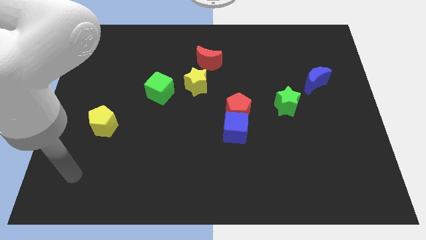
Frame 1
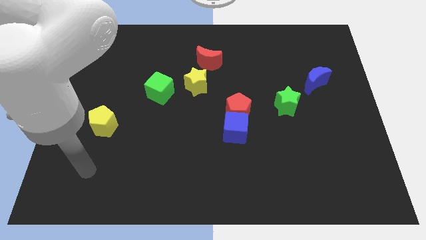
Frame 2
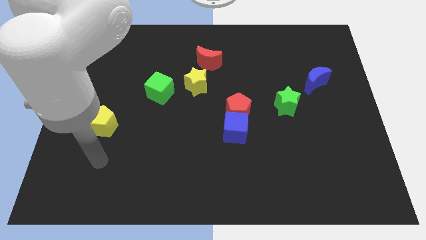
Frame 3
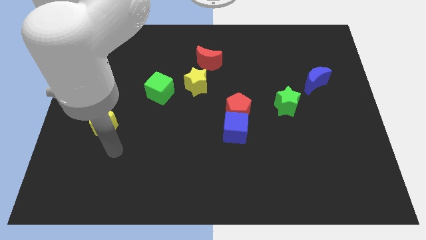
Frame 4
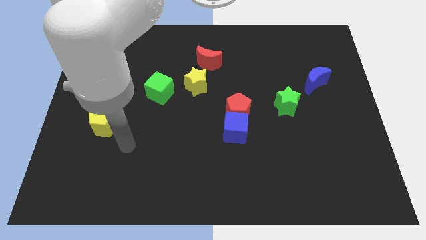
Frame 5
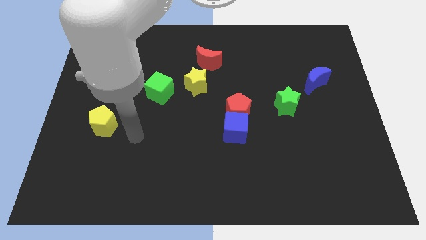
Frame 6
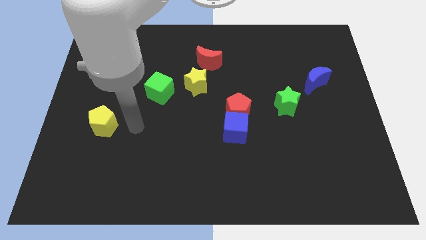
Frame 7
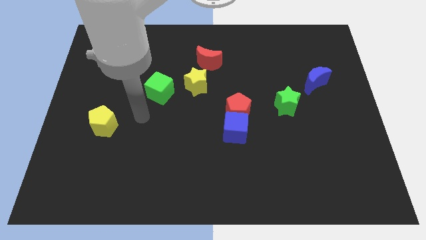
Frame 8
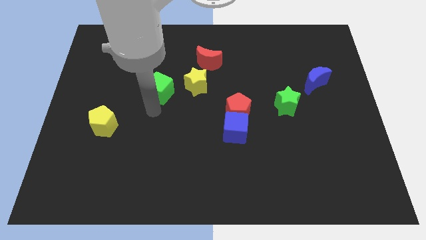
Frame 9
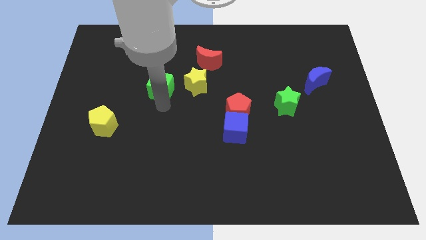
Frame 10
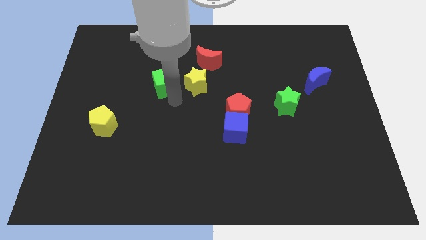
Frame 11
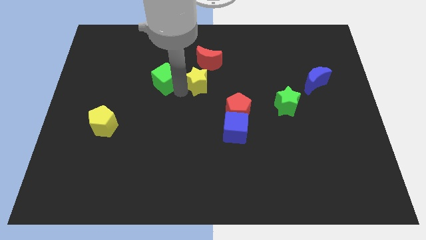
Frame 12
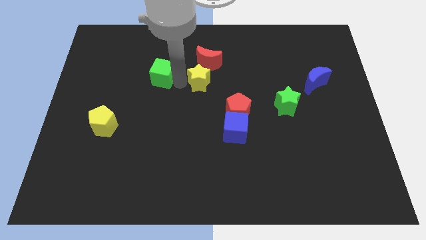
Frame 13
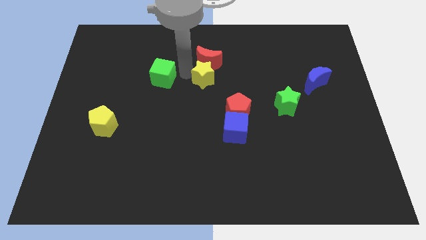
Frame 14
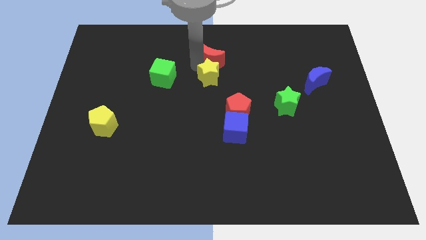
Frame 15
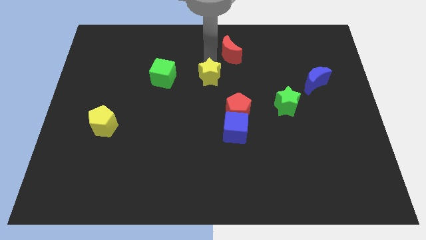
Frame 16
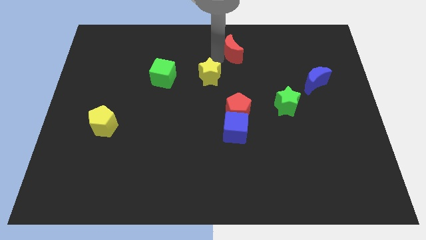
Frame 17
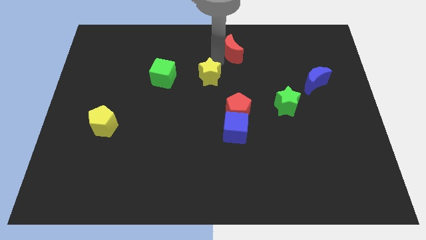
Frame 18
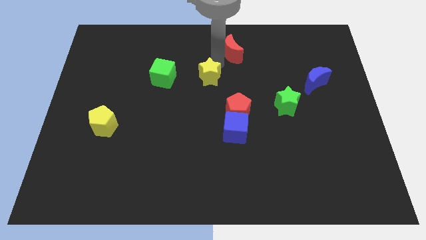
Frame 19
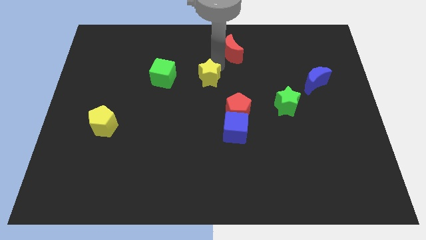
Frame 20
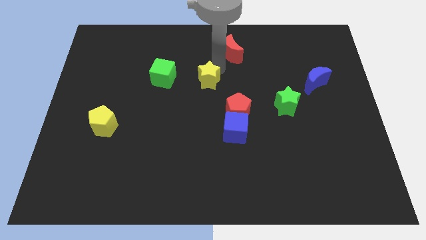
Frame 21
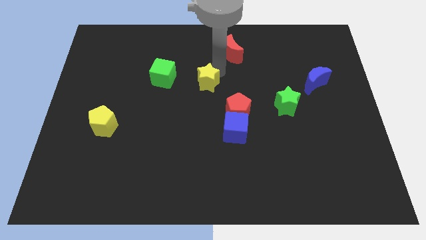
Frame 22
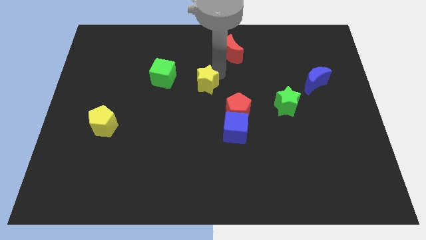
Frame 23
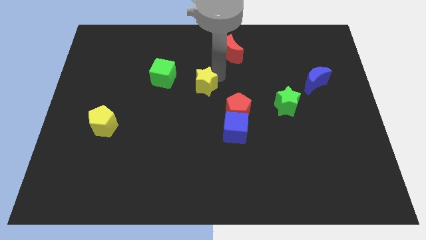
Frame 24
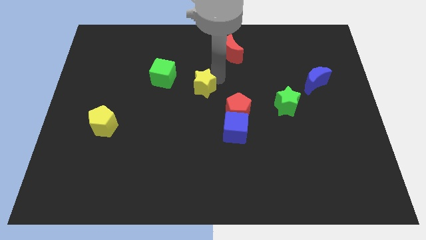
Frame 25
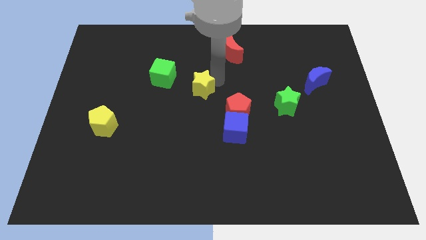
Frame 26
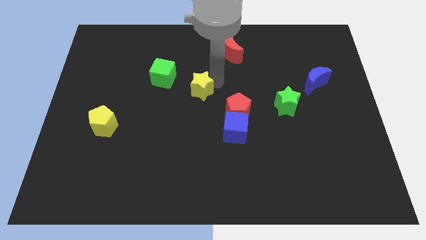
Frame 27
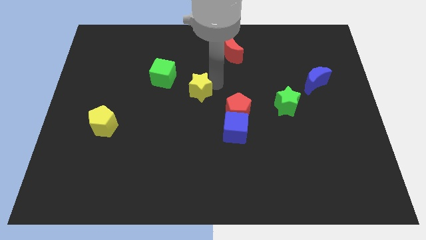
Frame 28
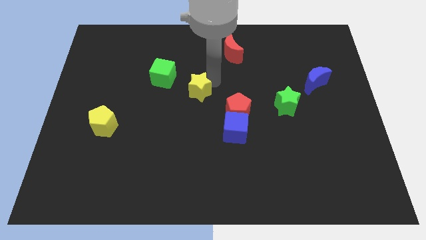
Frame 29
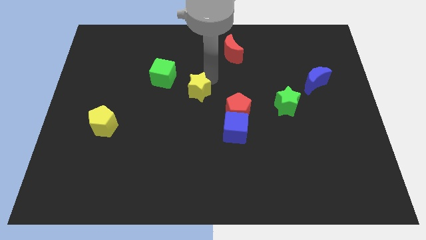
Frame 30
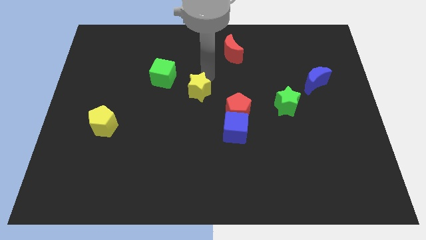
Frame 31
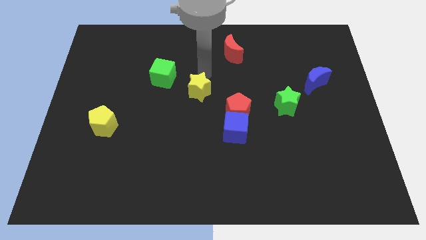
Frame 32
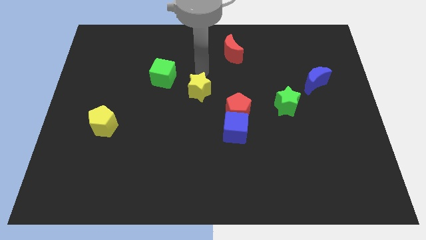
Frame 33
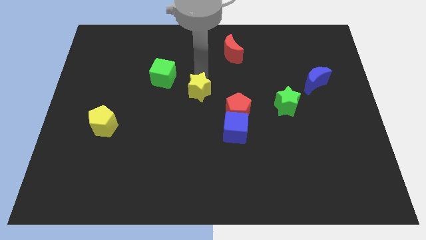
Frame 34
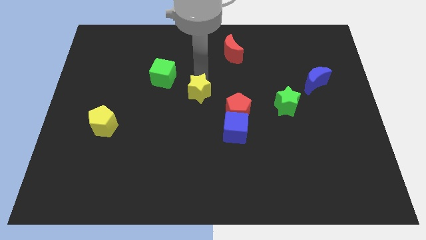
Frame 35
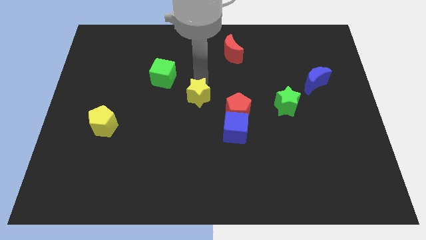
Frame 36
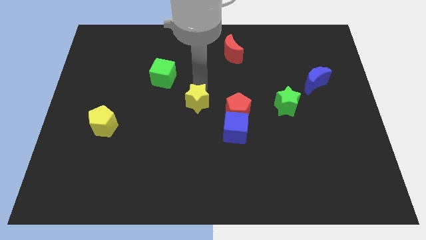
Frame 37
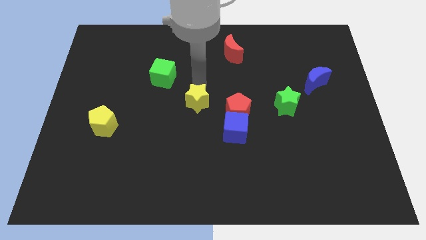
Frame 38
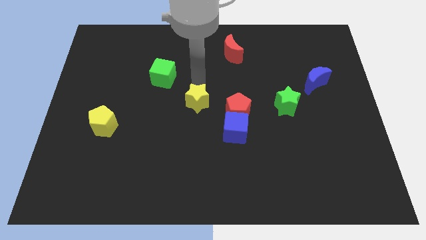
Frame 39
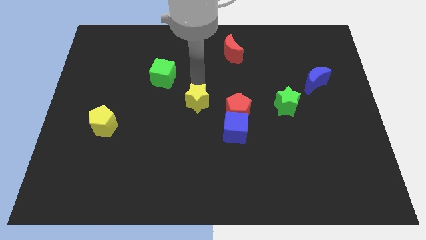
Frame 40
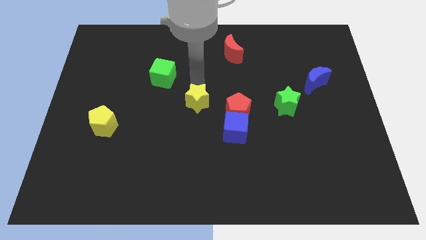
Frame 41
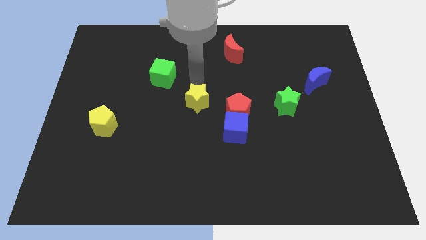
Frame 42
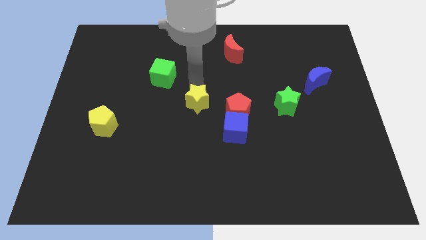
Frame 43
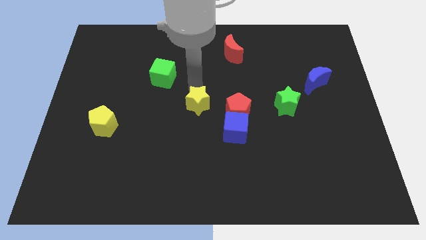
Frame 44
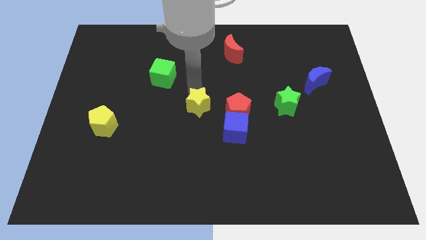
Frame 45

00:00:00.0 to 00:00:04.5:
slightly slide the yellow star downwards

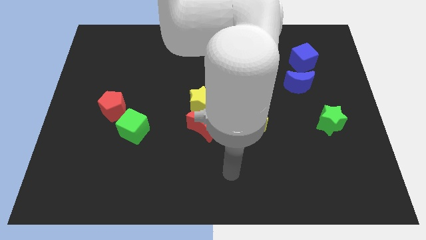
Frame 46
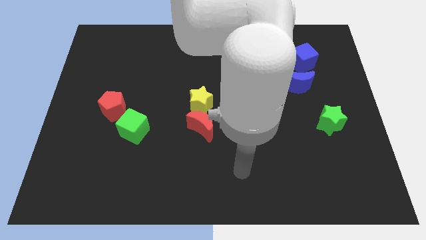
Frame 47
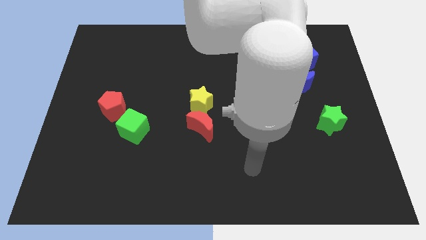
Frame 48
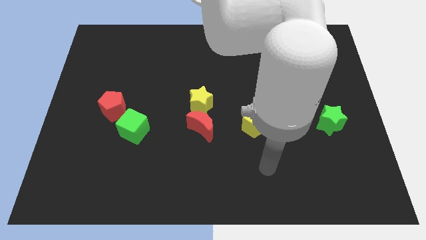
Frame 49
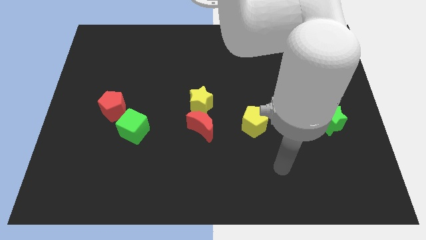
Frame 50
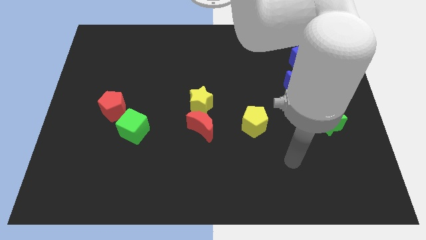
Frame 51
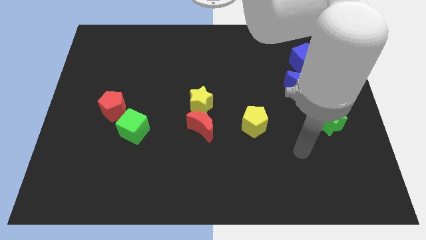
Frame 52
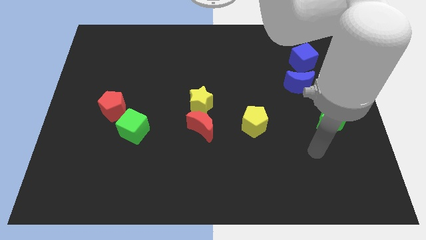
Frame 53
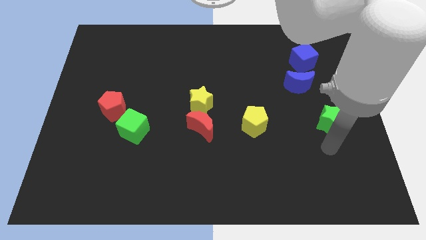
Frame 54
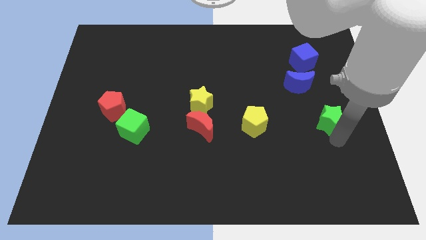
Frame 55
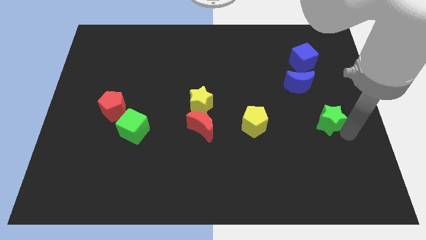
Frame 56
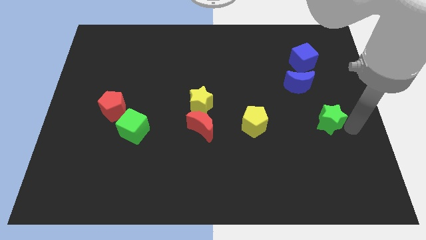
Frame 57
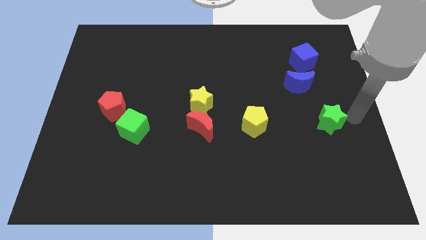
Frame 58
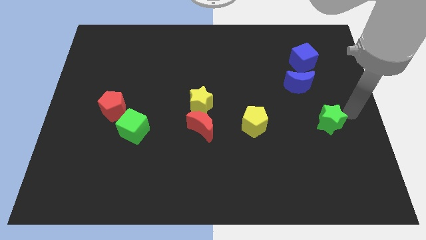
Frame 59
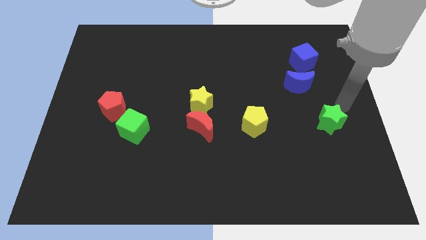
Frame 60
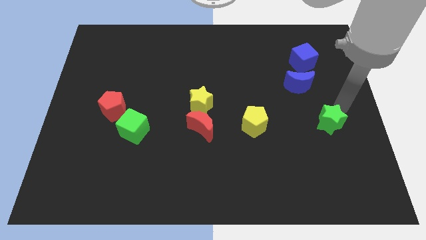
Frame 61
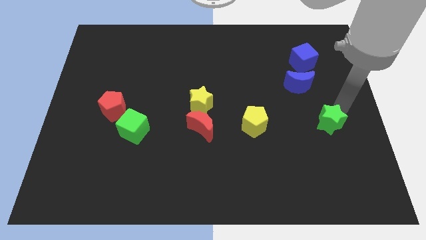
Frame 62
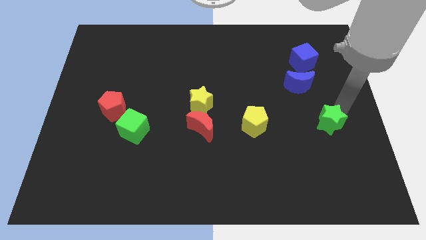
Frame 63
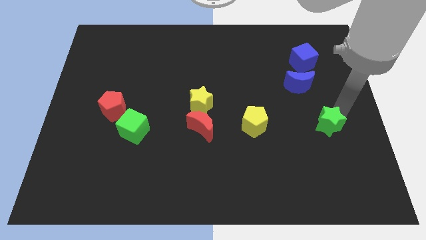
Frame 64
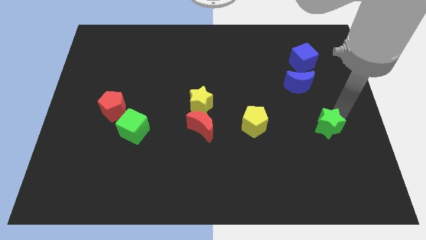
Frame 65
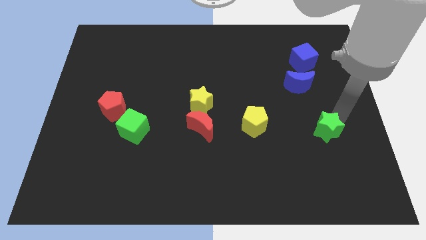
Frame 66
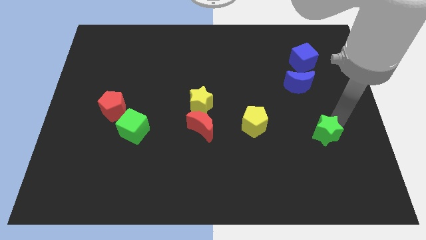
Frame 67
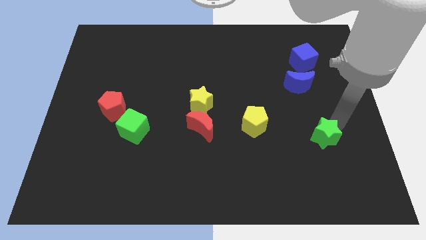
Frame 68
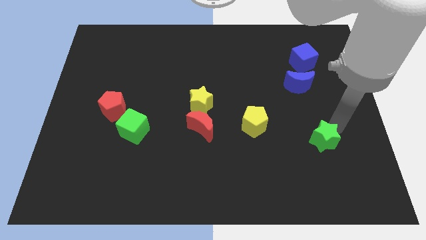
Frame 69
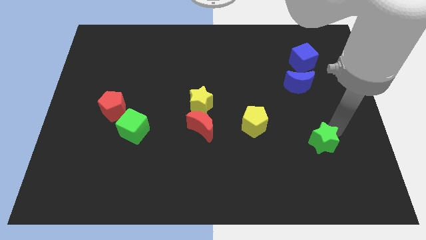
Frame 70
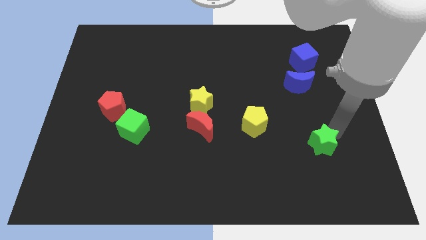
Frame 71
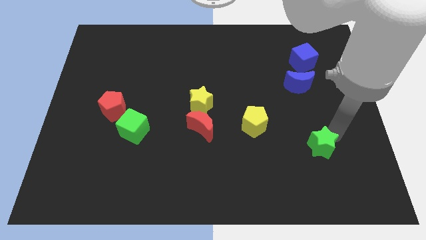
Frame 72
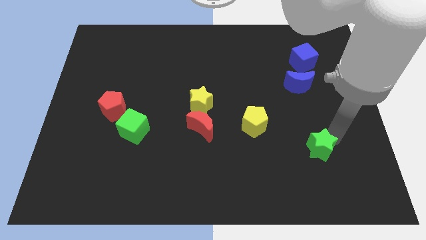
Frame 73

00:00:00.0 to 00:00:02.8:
slide the green star a little downwards and then to the left

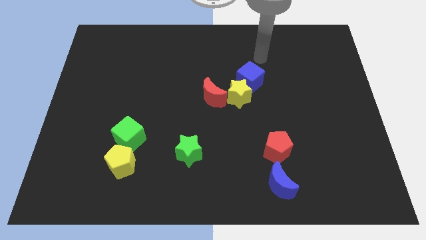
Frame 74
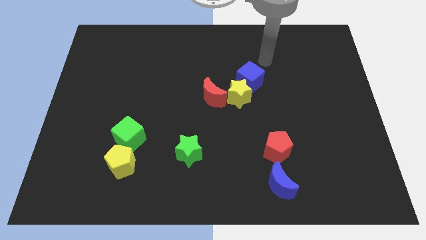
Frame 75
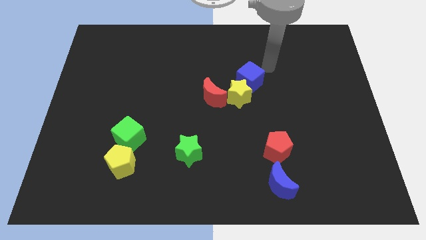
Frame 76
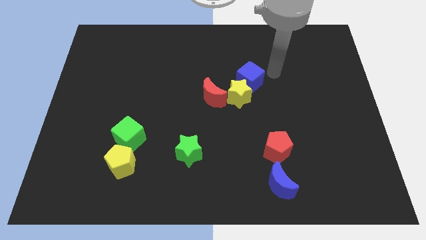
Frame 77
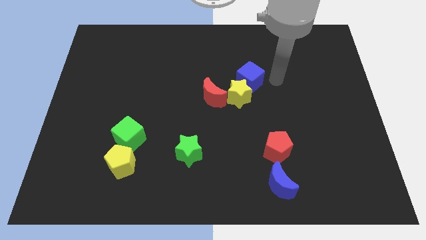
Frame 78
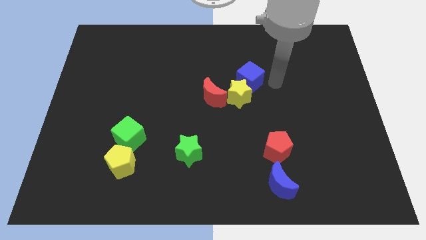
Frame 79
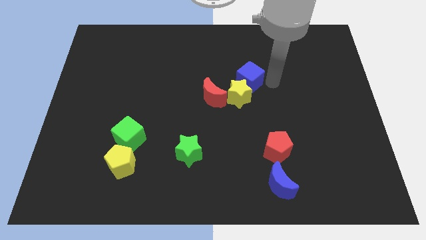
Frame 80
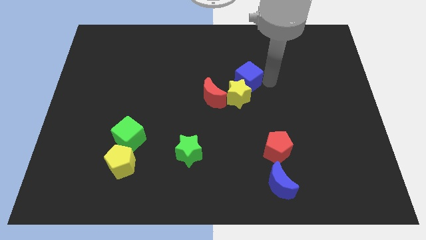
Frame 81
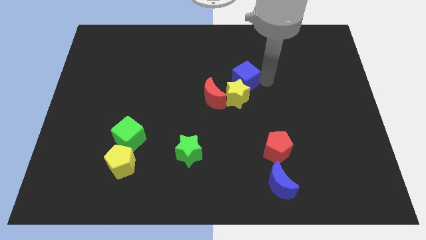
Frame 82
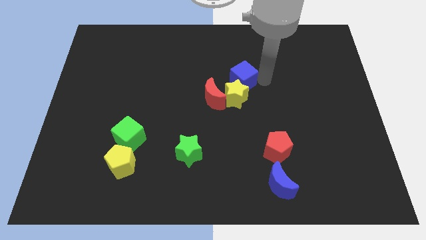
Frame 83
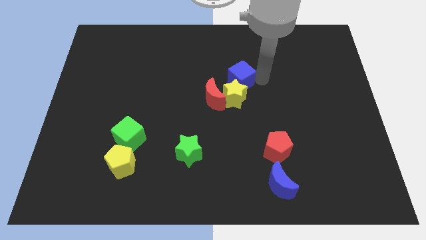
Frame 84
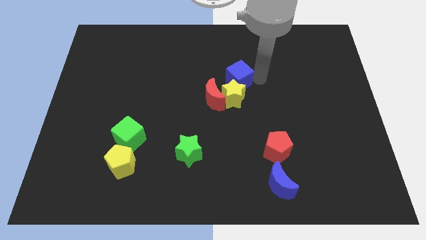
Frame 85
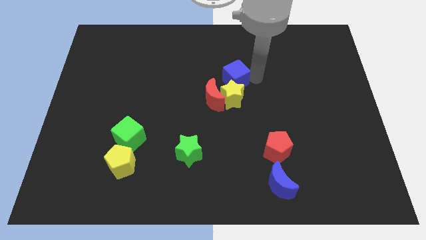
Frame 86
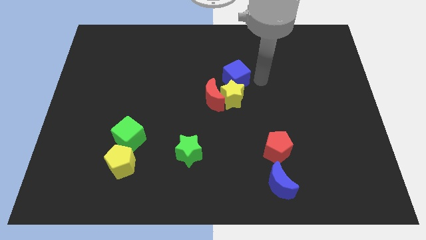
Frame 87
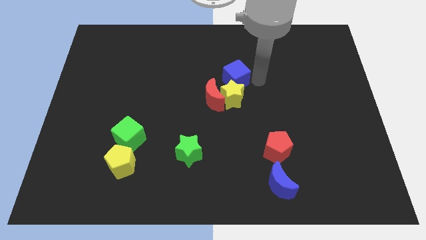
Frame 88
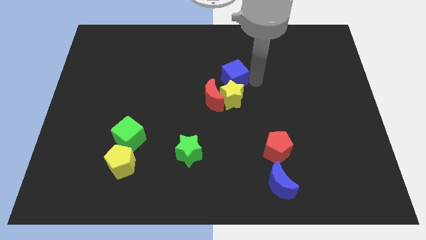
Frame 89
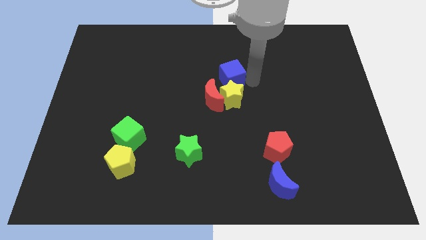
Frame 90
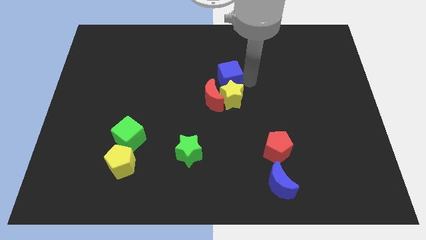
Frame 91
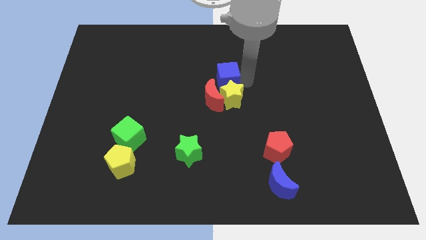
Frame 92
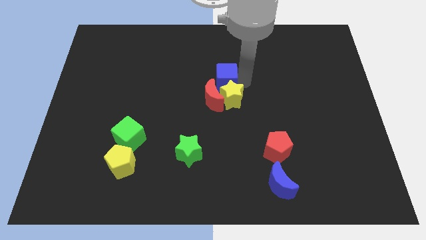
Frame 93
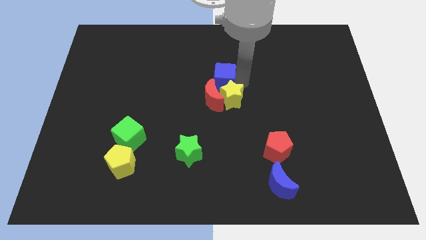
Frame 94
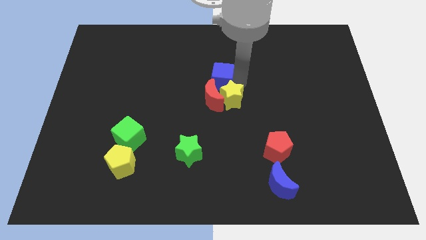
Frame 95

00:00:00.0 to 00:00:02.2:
move the blue cube left a bit
